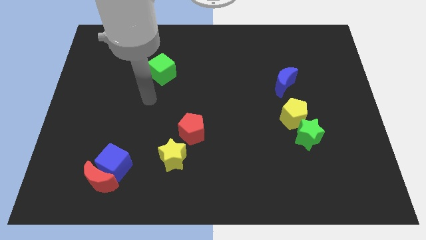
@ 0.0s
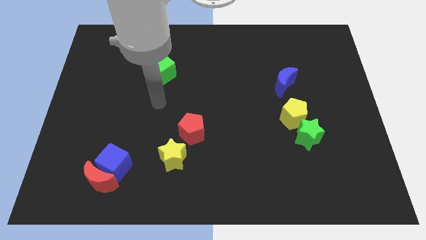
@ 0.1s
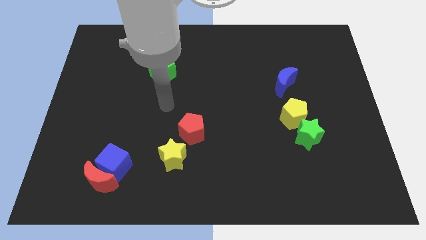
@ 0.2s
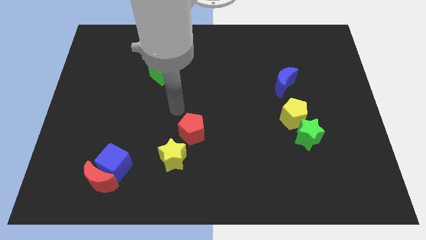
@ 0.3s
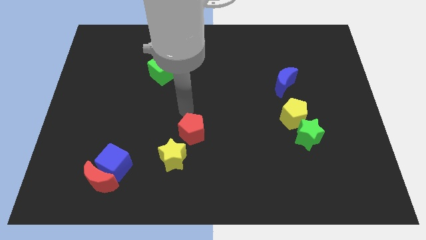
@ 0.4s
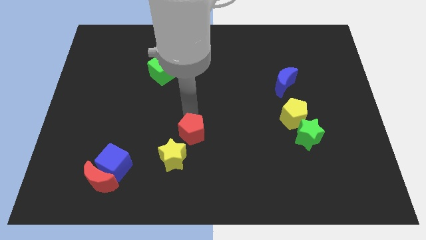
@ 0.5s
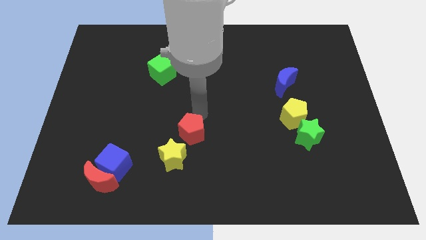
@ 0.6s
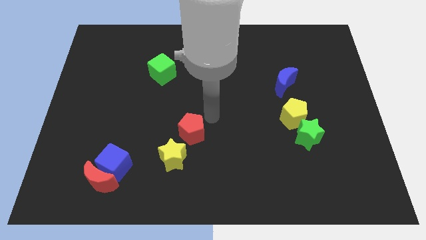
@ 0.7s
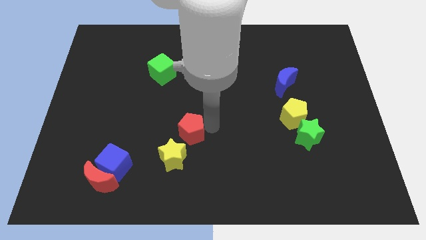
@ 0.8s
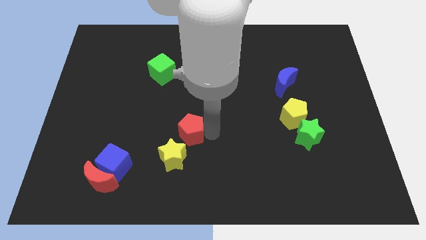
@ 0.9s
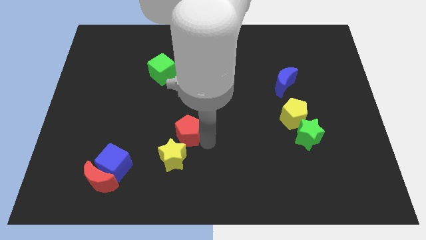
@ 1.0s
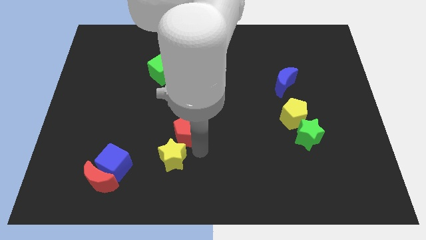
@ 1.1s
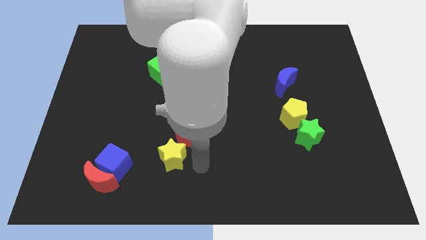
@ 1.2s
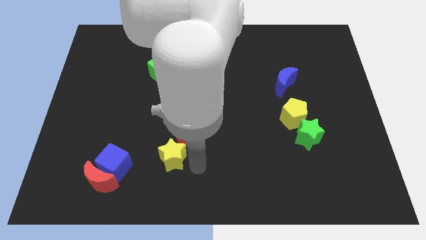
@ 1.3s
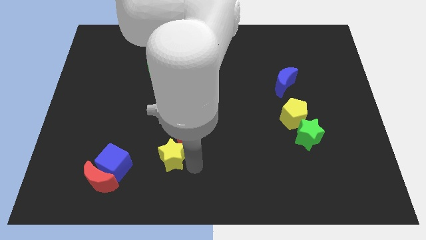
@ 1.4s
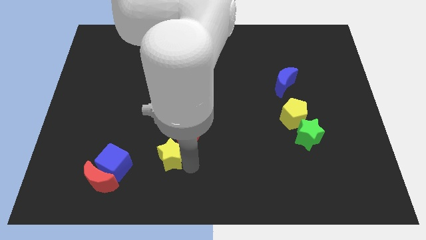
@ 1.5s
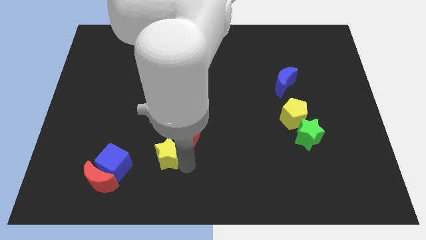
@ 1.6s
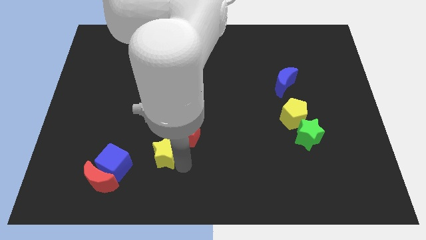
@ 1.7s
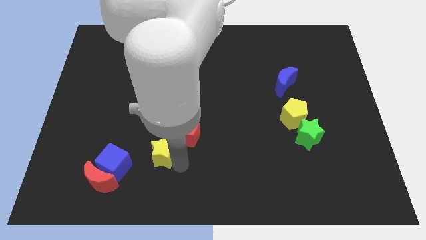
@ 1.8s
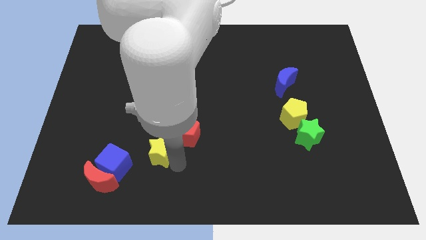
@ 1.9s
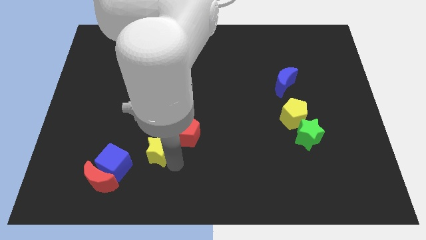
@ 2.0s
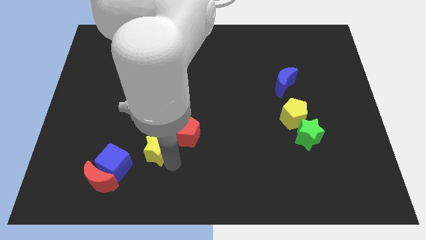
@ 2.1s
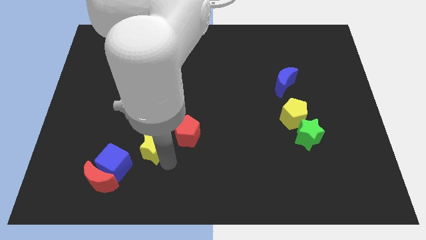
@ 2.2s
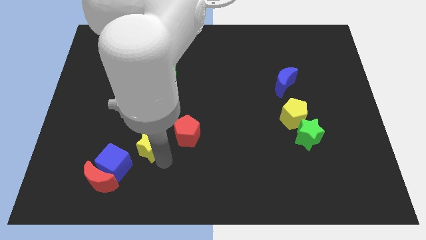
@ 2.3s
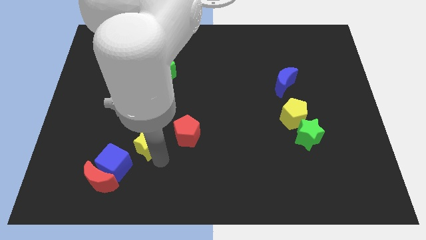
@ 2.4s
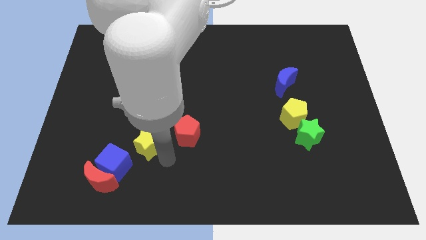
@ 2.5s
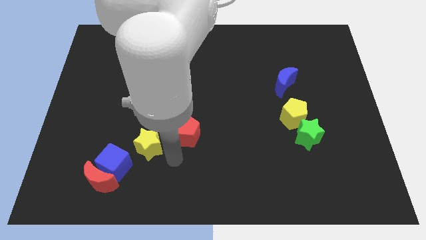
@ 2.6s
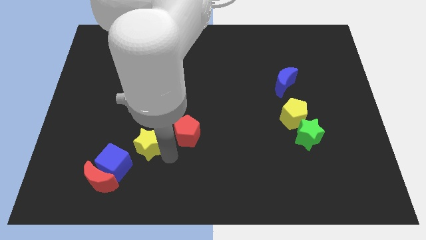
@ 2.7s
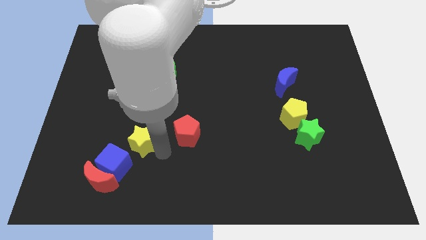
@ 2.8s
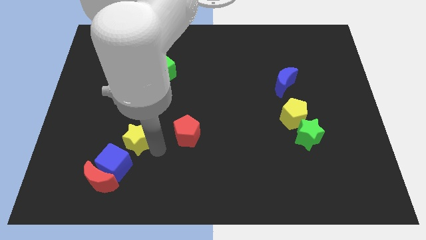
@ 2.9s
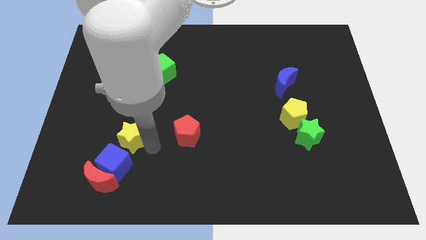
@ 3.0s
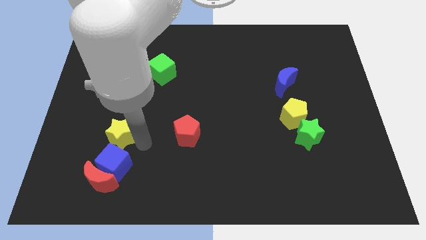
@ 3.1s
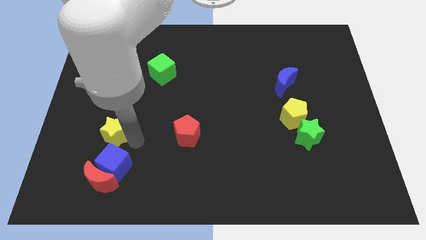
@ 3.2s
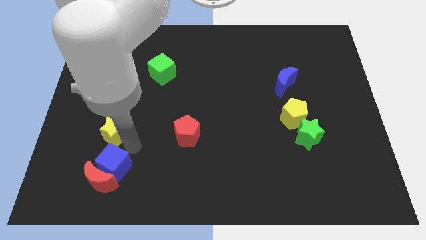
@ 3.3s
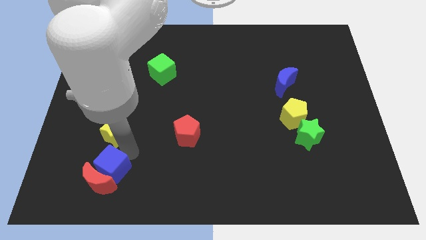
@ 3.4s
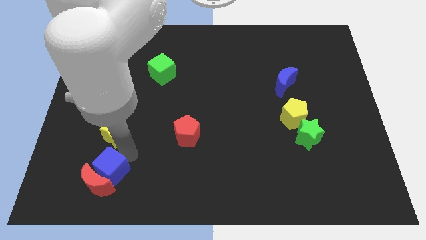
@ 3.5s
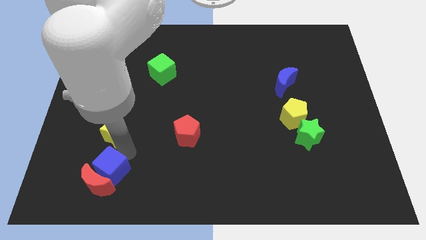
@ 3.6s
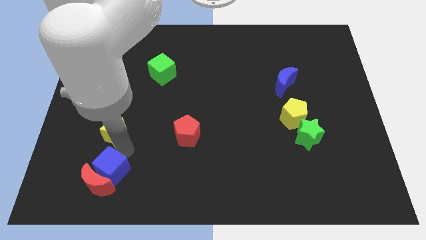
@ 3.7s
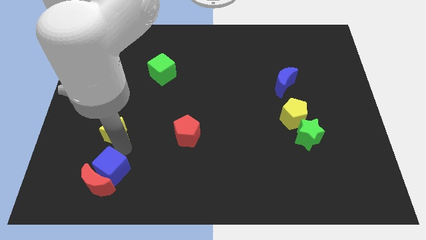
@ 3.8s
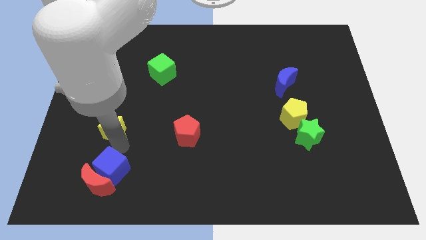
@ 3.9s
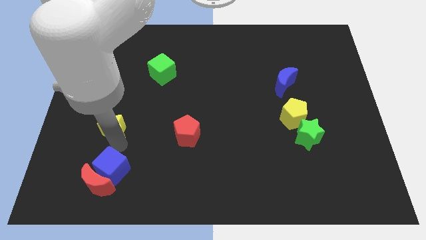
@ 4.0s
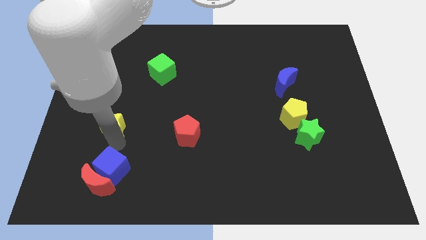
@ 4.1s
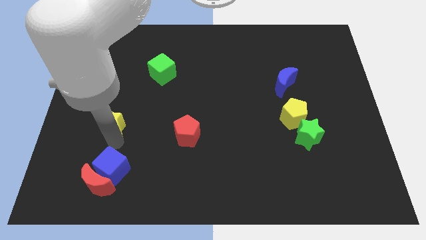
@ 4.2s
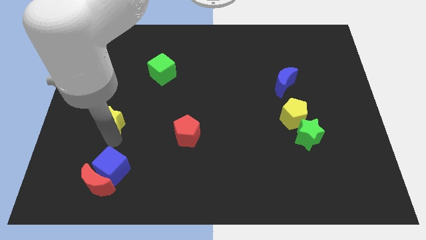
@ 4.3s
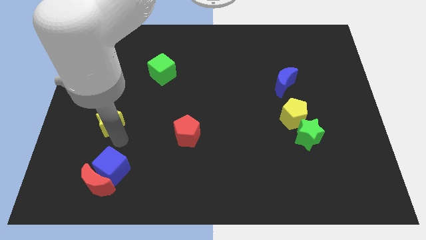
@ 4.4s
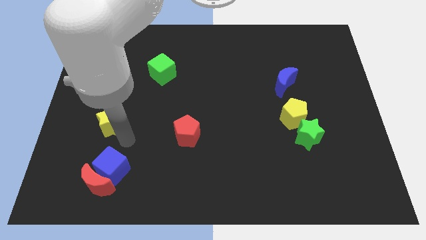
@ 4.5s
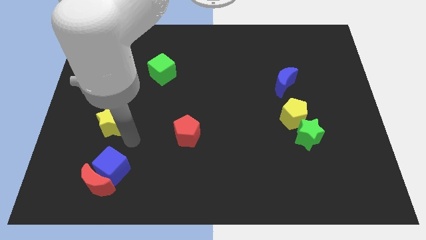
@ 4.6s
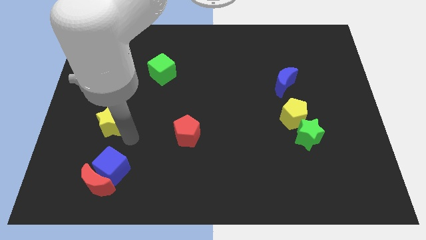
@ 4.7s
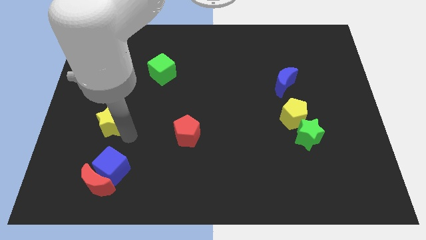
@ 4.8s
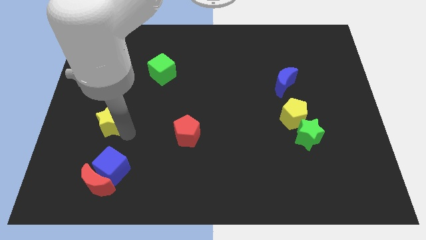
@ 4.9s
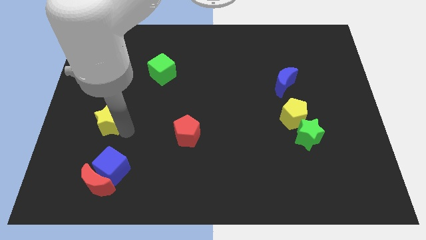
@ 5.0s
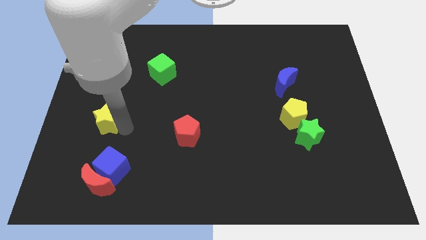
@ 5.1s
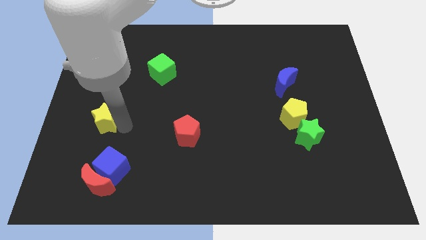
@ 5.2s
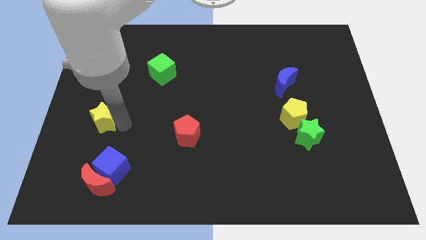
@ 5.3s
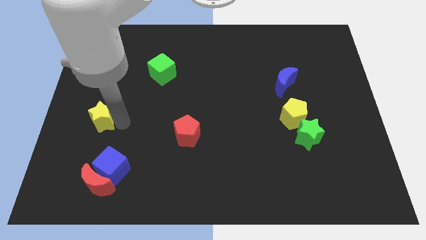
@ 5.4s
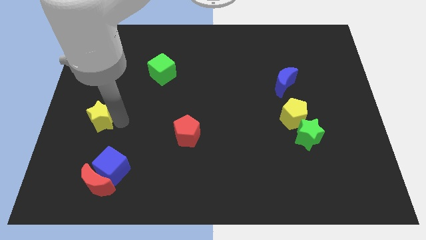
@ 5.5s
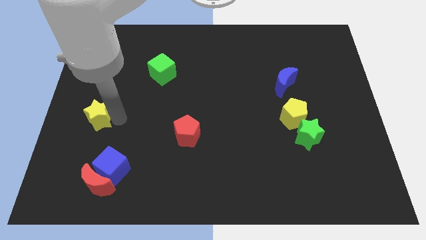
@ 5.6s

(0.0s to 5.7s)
put the yellow star to the left side

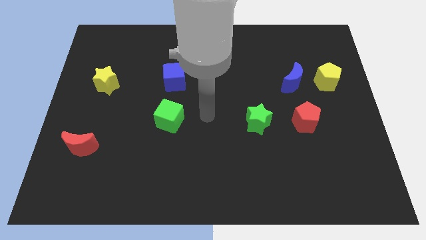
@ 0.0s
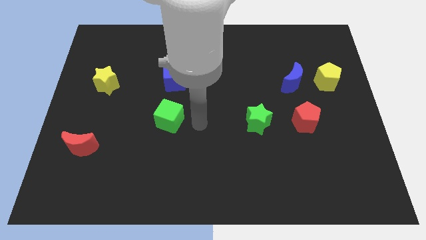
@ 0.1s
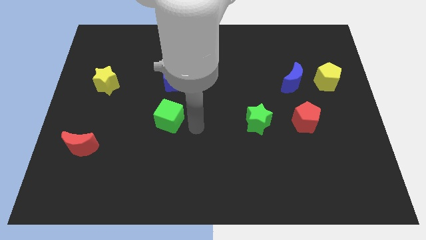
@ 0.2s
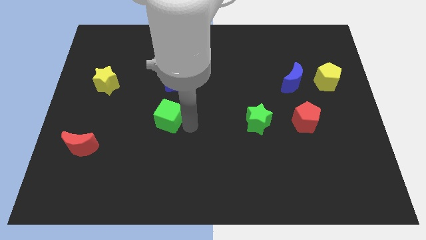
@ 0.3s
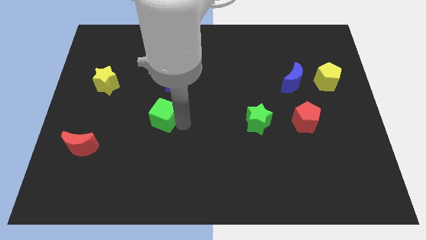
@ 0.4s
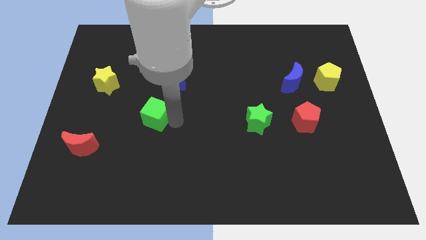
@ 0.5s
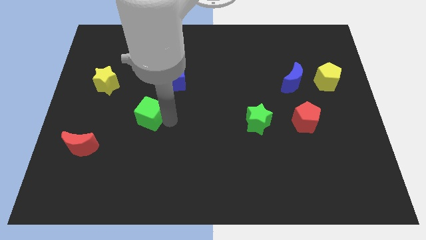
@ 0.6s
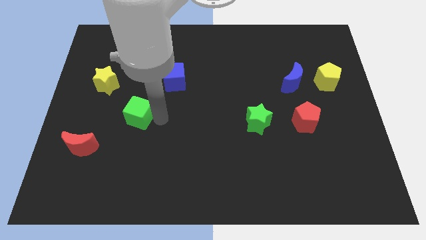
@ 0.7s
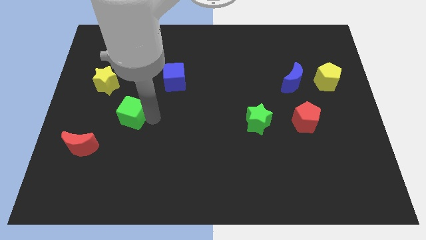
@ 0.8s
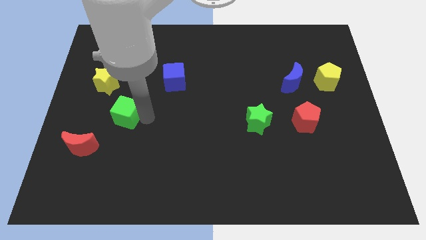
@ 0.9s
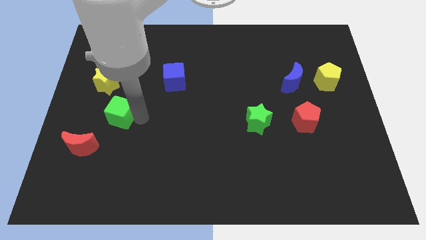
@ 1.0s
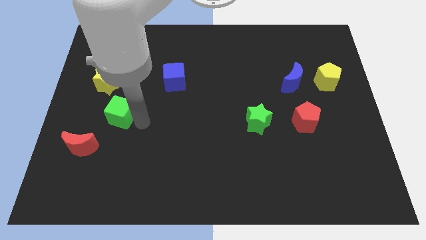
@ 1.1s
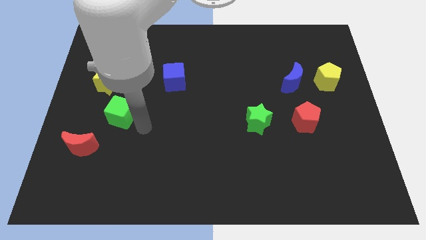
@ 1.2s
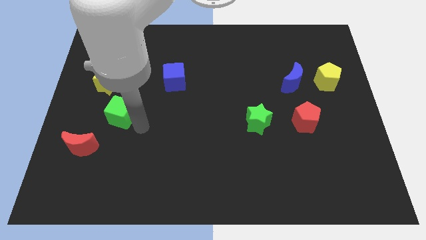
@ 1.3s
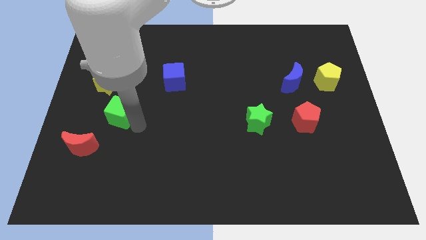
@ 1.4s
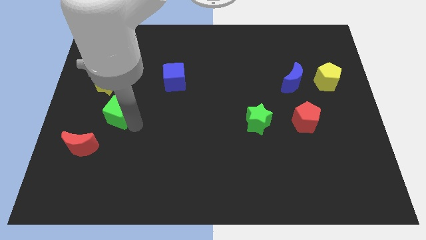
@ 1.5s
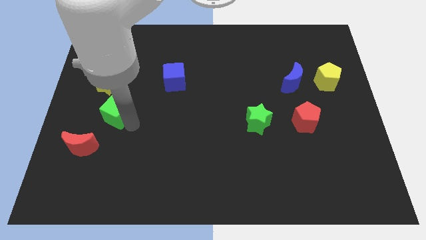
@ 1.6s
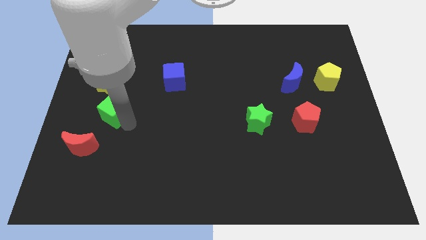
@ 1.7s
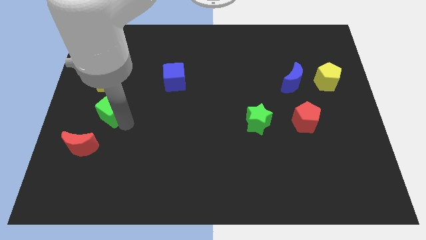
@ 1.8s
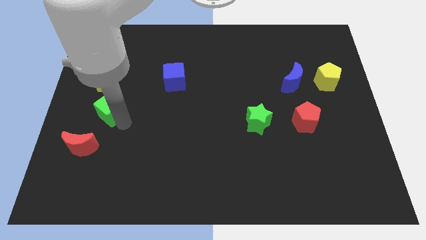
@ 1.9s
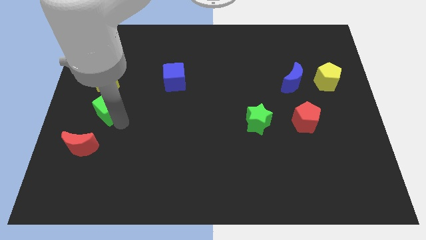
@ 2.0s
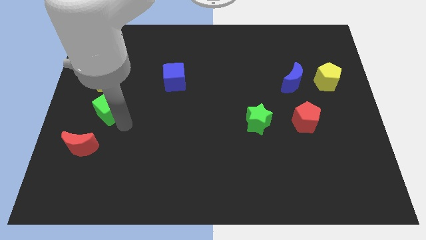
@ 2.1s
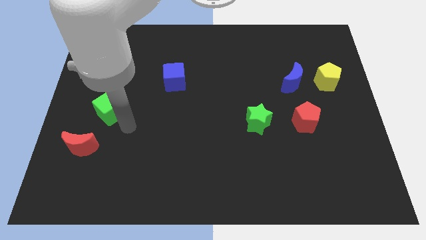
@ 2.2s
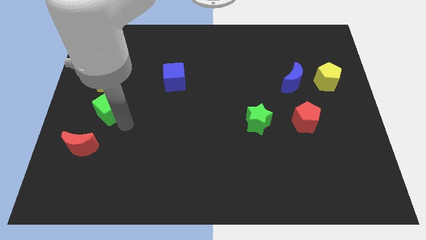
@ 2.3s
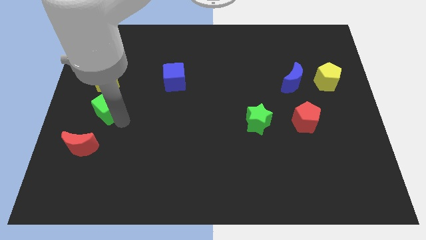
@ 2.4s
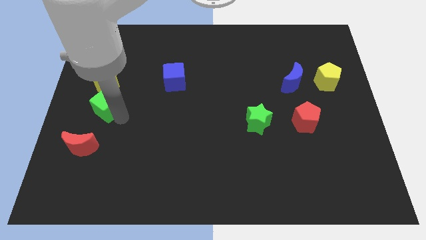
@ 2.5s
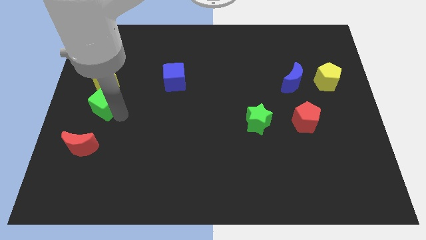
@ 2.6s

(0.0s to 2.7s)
slide the green cube to the left side
